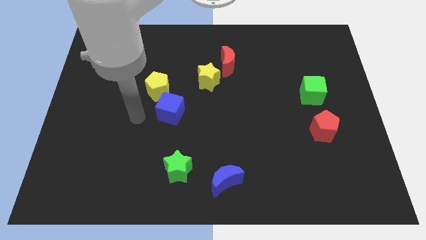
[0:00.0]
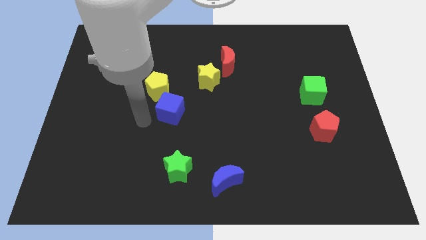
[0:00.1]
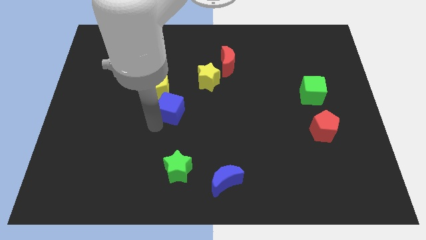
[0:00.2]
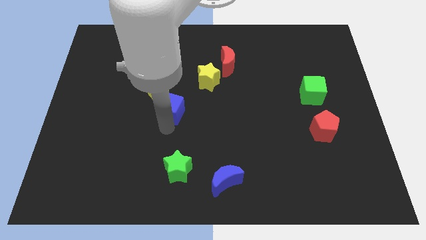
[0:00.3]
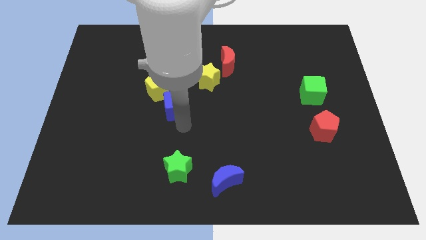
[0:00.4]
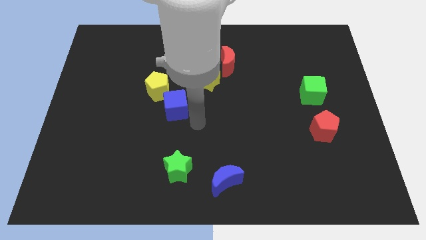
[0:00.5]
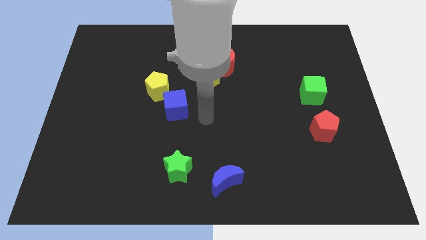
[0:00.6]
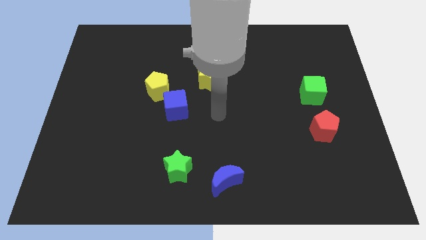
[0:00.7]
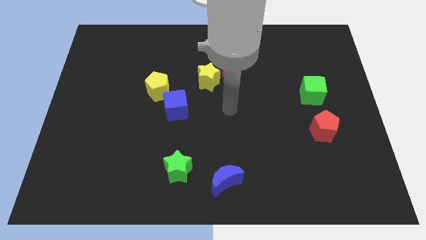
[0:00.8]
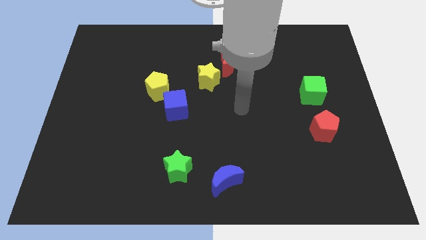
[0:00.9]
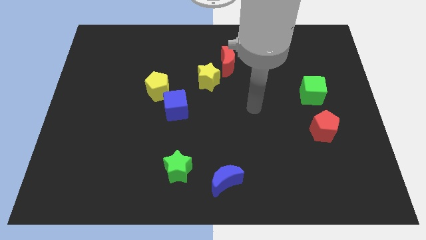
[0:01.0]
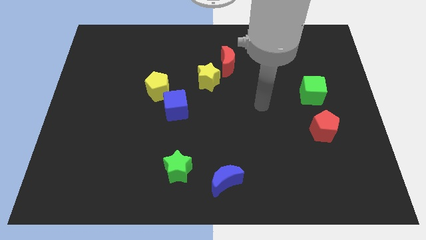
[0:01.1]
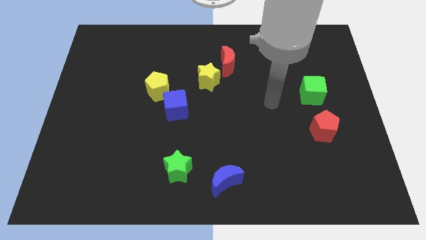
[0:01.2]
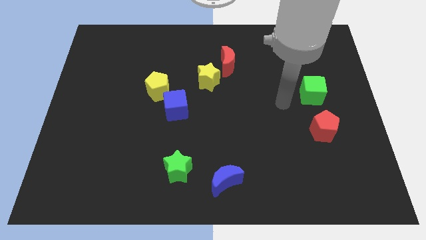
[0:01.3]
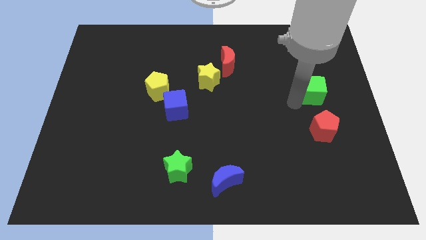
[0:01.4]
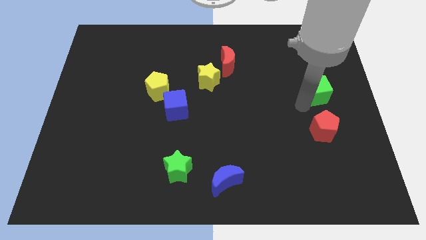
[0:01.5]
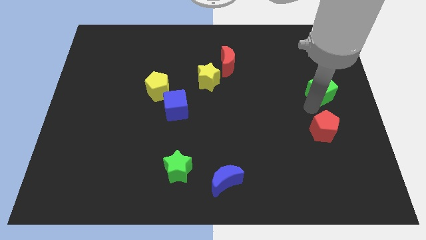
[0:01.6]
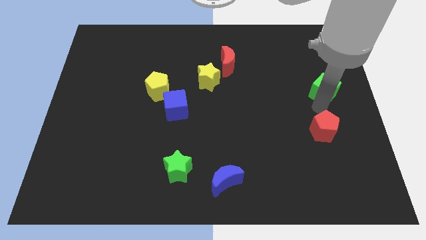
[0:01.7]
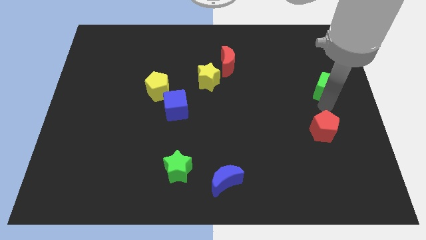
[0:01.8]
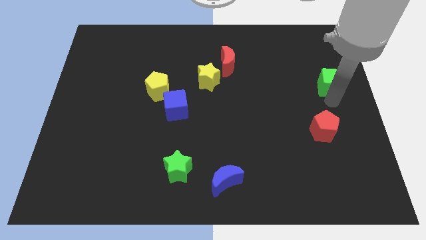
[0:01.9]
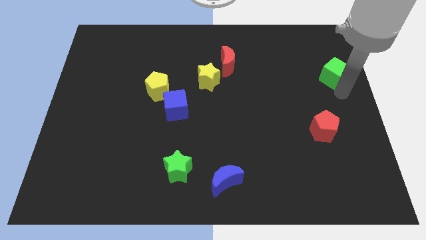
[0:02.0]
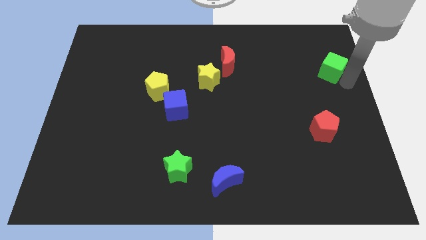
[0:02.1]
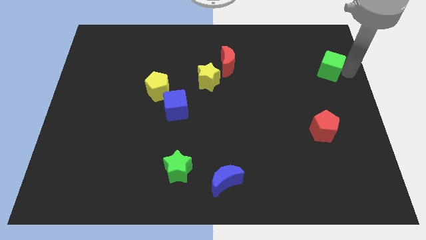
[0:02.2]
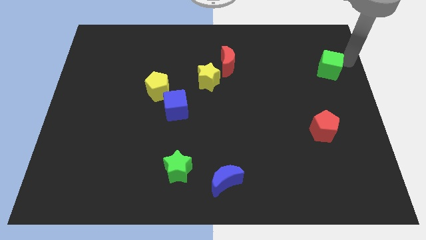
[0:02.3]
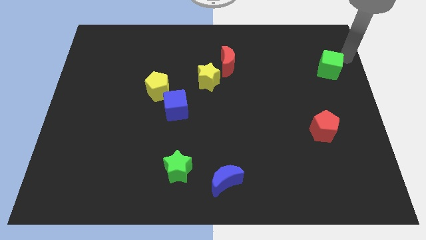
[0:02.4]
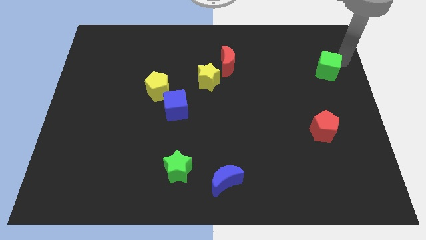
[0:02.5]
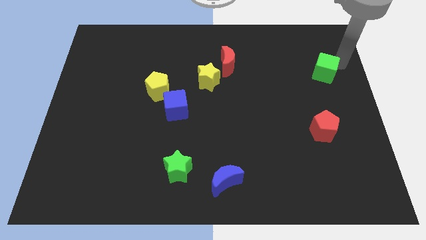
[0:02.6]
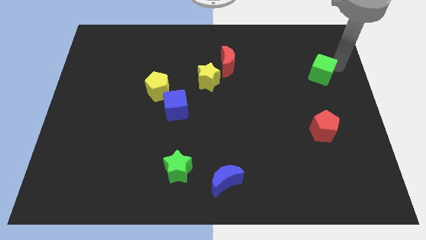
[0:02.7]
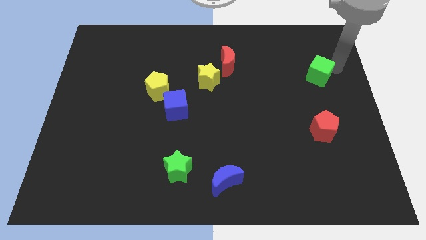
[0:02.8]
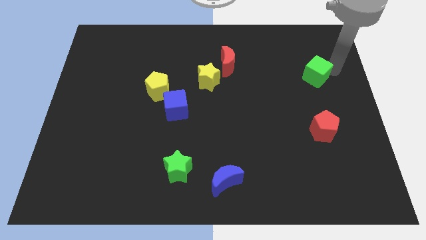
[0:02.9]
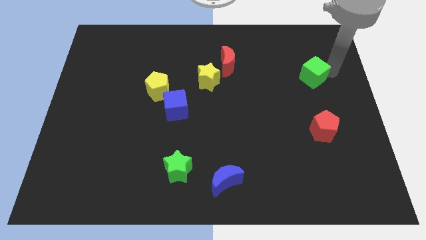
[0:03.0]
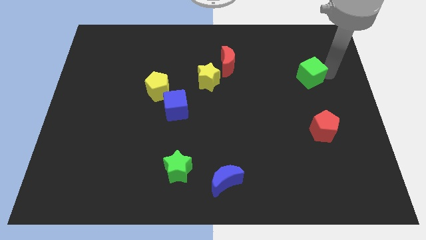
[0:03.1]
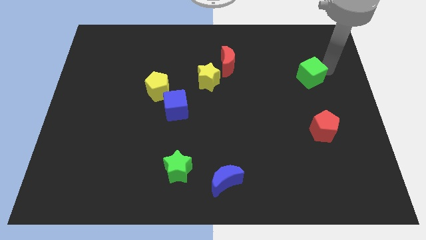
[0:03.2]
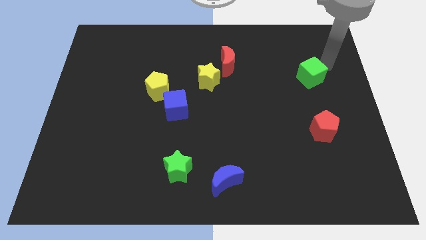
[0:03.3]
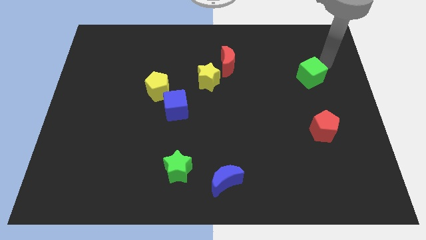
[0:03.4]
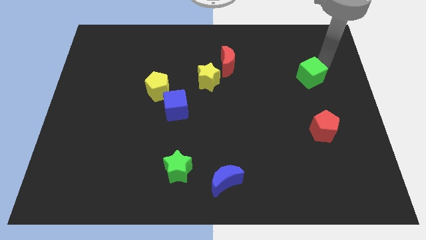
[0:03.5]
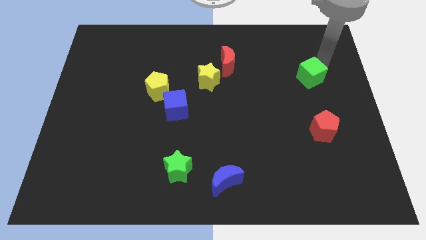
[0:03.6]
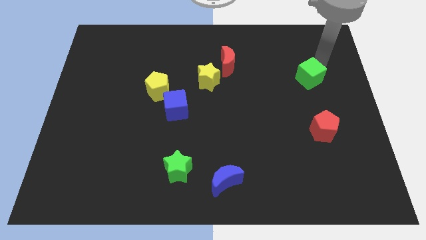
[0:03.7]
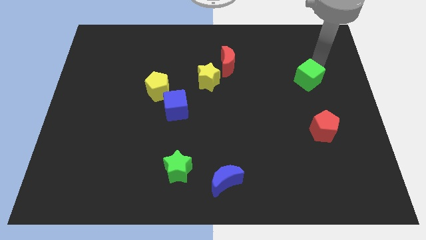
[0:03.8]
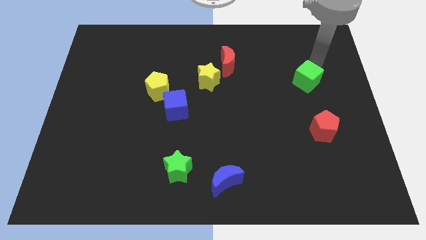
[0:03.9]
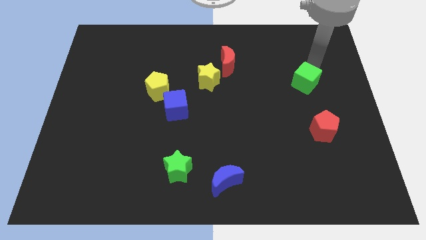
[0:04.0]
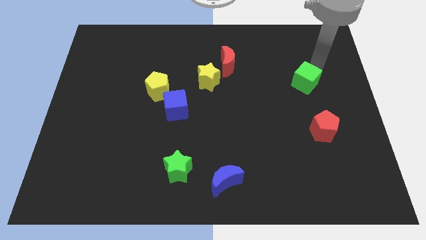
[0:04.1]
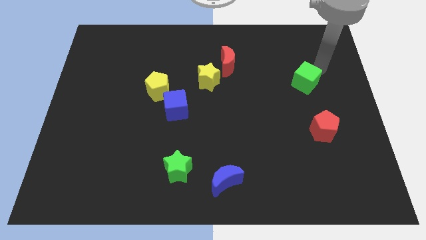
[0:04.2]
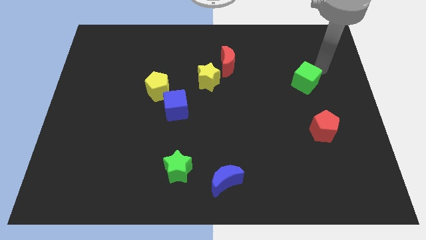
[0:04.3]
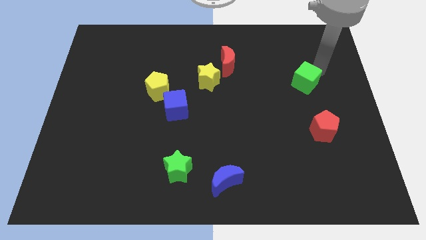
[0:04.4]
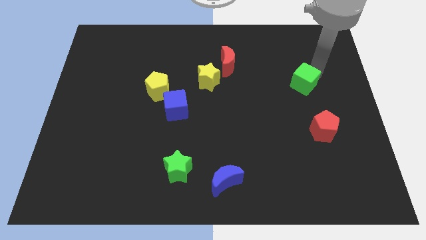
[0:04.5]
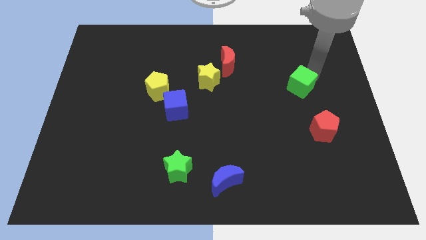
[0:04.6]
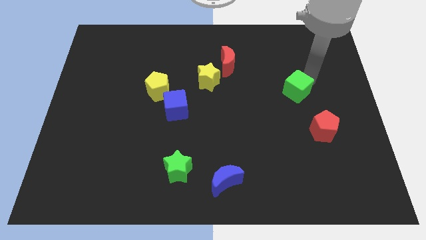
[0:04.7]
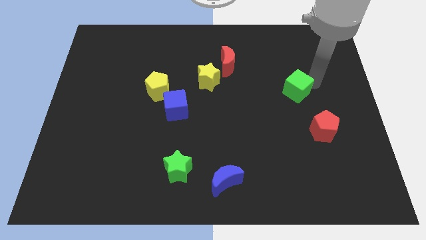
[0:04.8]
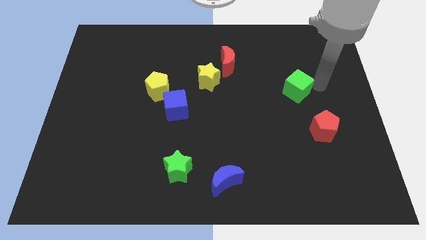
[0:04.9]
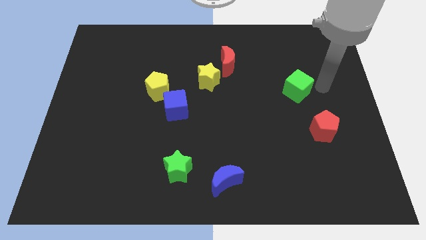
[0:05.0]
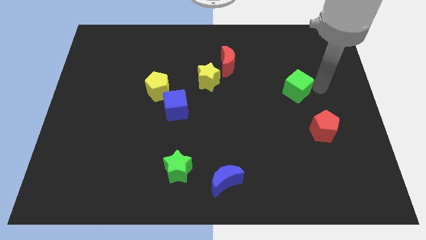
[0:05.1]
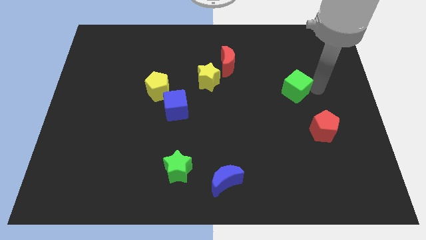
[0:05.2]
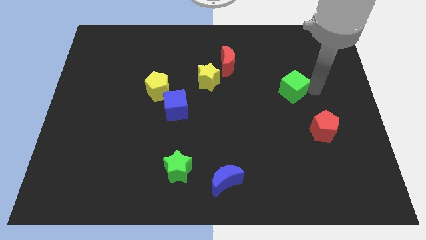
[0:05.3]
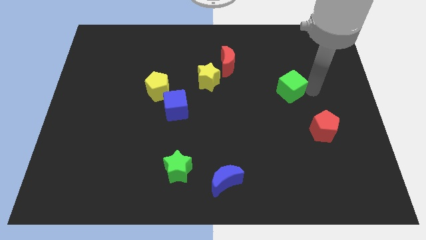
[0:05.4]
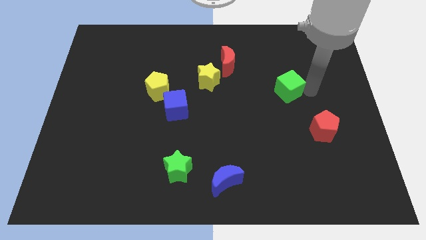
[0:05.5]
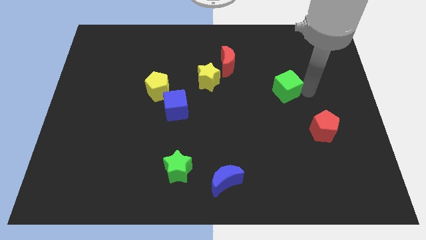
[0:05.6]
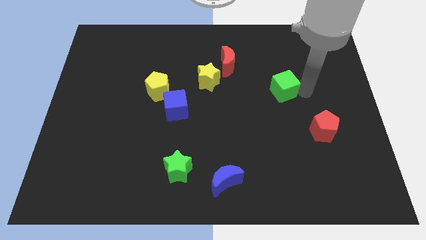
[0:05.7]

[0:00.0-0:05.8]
push the green cube a little to the left

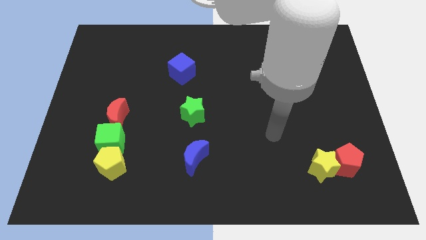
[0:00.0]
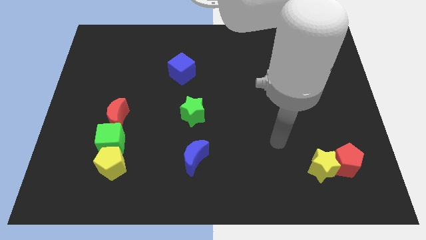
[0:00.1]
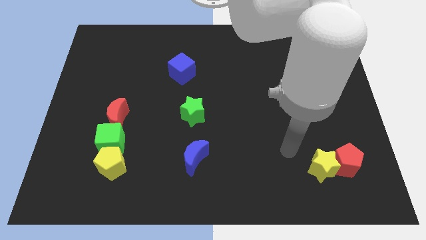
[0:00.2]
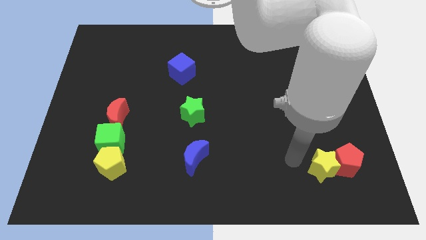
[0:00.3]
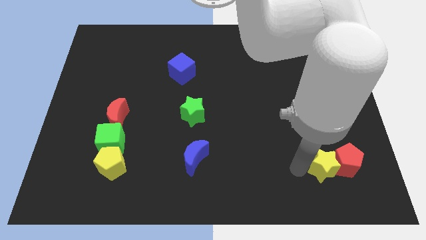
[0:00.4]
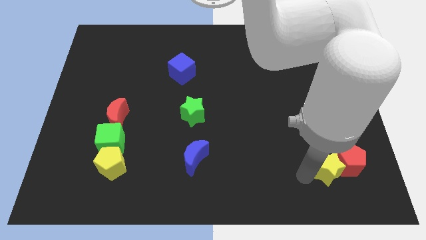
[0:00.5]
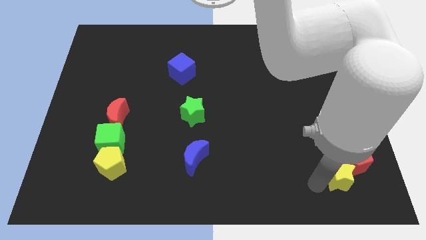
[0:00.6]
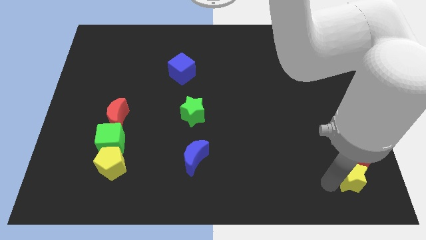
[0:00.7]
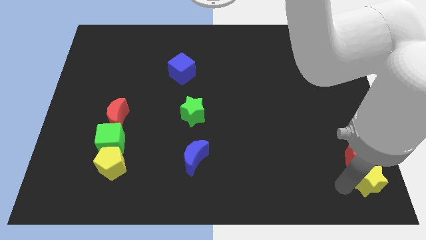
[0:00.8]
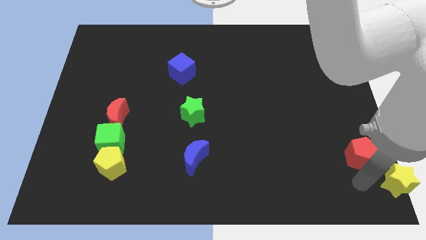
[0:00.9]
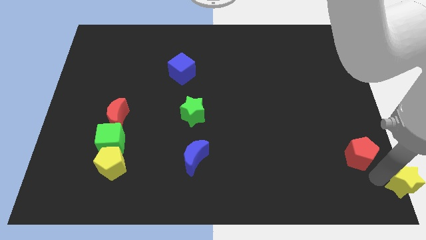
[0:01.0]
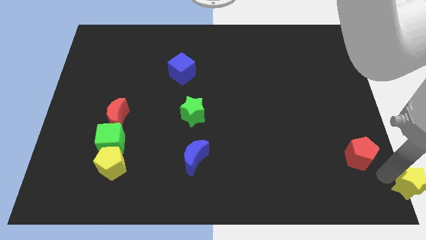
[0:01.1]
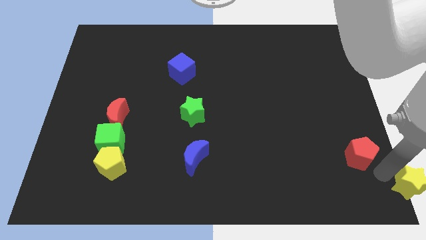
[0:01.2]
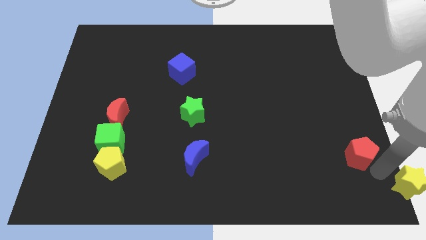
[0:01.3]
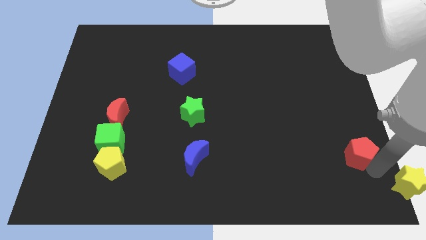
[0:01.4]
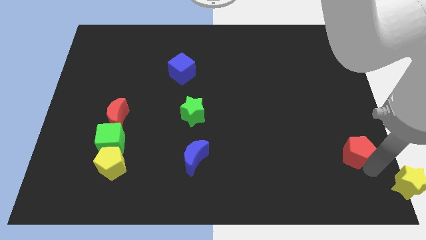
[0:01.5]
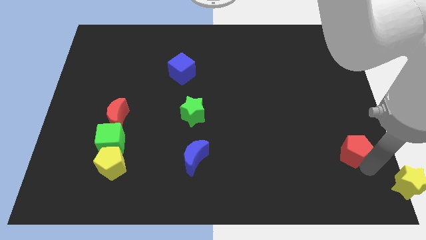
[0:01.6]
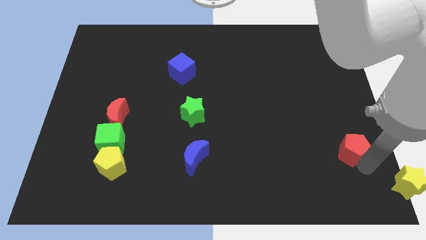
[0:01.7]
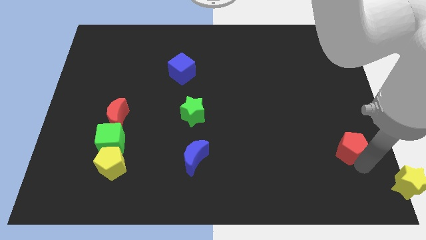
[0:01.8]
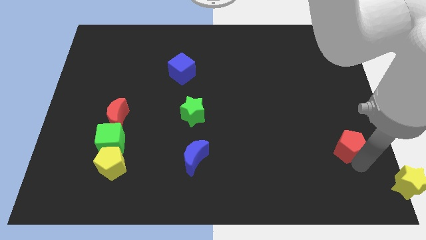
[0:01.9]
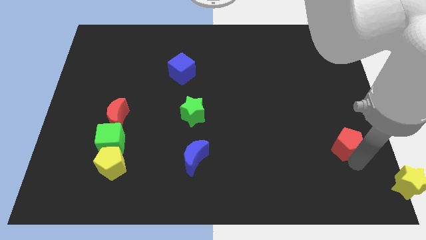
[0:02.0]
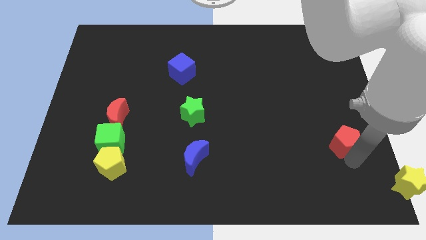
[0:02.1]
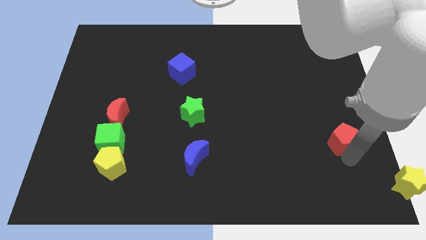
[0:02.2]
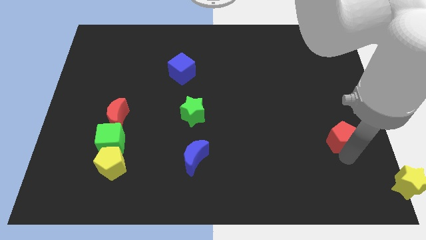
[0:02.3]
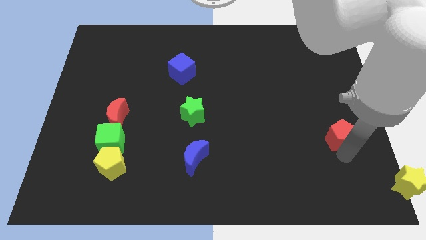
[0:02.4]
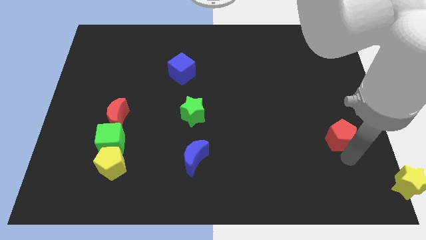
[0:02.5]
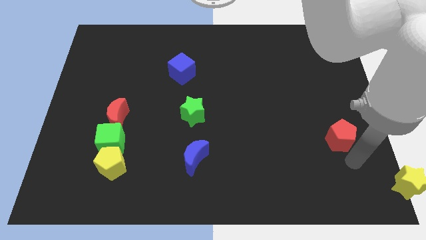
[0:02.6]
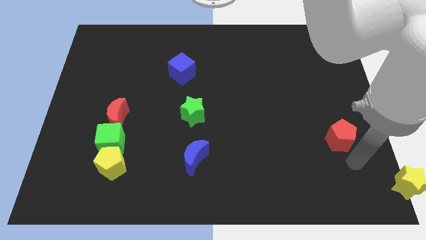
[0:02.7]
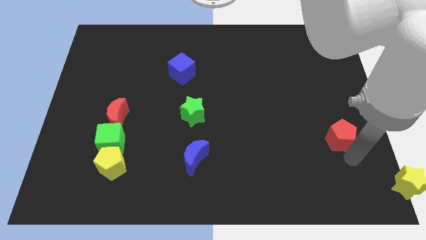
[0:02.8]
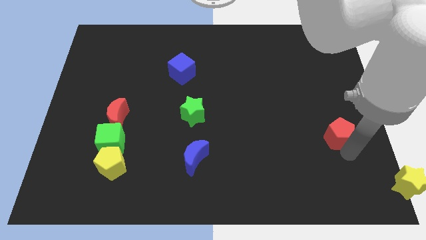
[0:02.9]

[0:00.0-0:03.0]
push the red pentagon a little upwards
